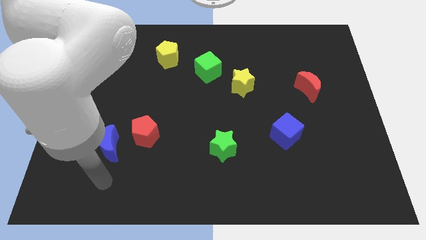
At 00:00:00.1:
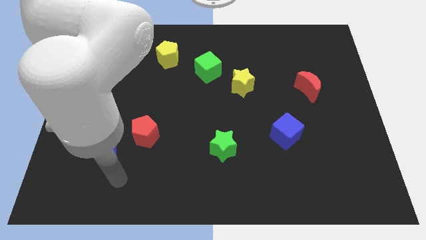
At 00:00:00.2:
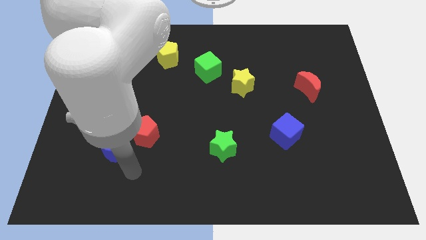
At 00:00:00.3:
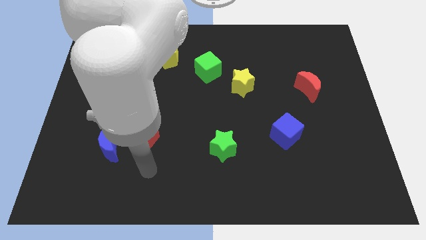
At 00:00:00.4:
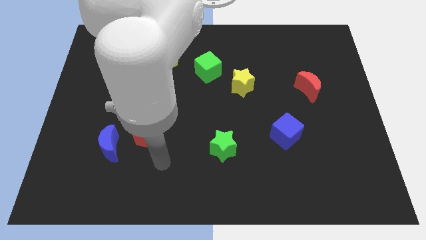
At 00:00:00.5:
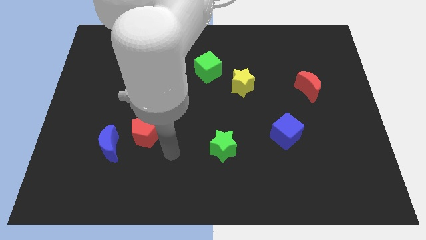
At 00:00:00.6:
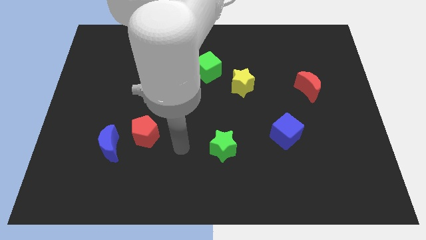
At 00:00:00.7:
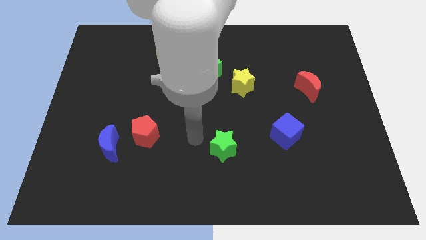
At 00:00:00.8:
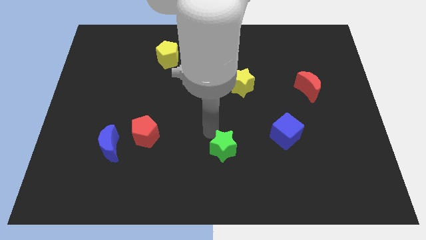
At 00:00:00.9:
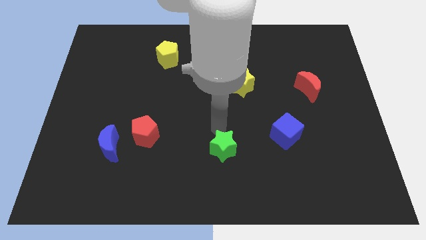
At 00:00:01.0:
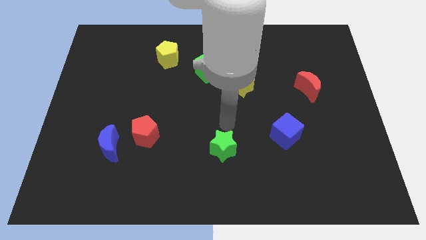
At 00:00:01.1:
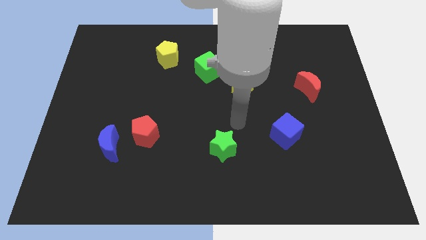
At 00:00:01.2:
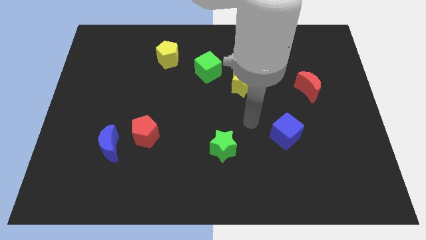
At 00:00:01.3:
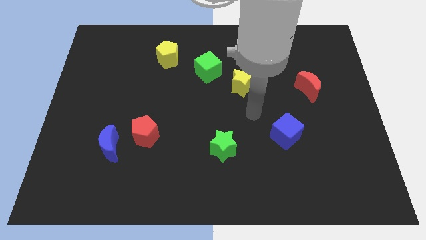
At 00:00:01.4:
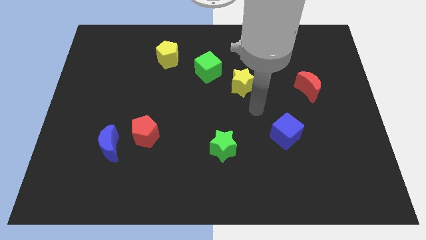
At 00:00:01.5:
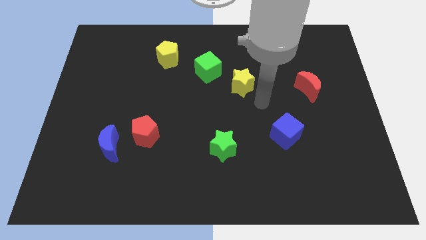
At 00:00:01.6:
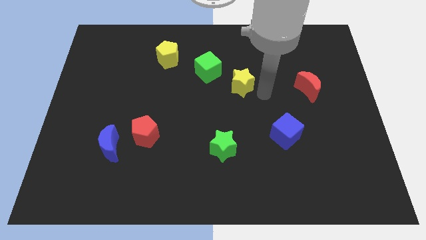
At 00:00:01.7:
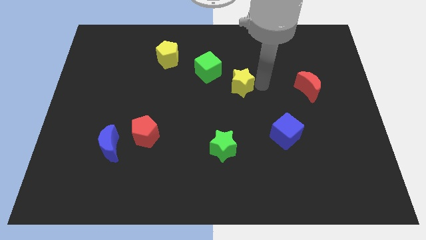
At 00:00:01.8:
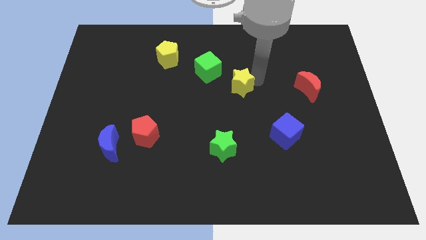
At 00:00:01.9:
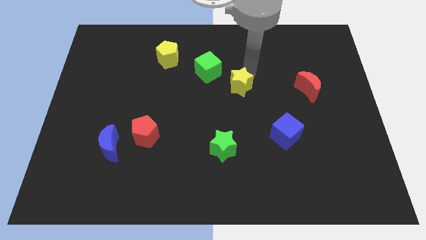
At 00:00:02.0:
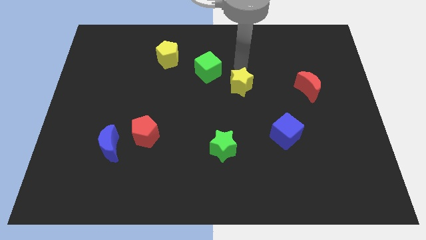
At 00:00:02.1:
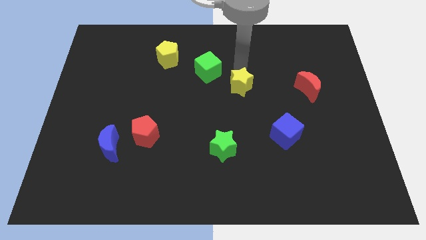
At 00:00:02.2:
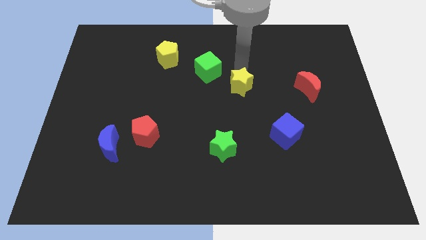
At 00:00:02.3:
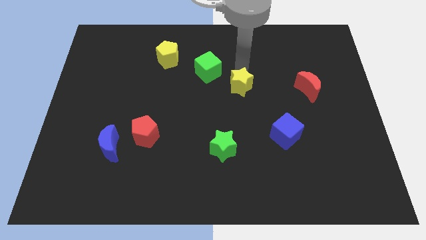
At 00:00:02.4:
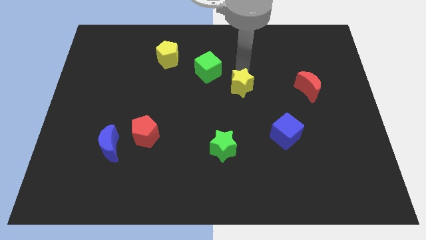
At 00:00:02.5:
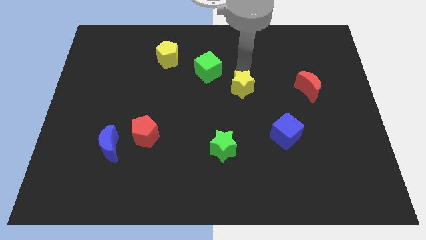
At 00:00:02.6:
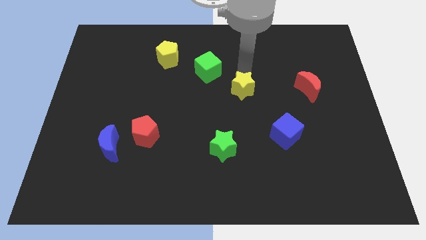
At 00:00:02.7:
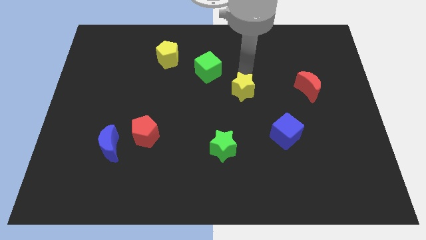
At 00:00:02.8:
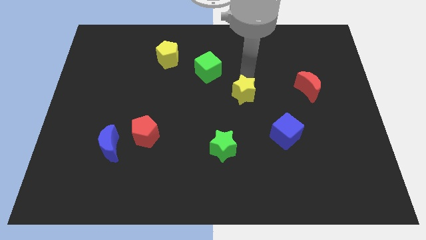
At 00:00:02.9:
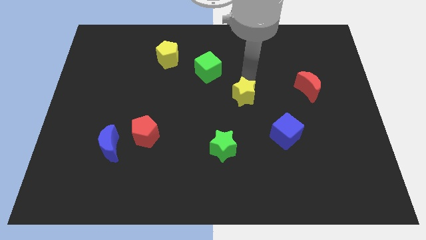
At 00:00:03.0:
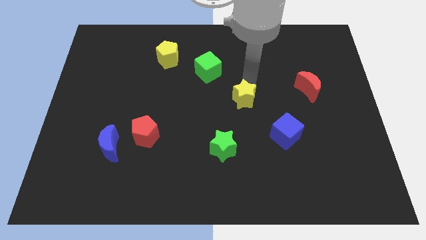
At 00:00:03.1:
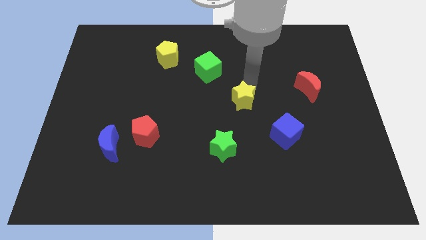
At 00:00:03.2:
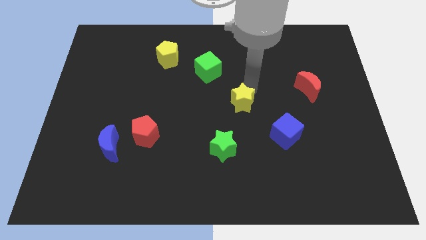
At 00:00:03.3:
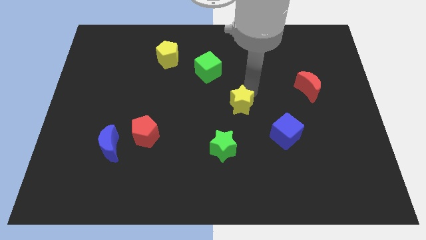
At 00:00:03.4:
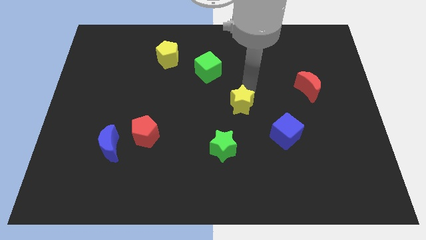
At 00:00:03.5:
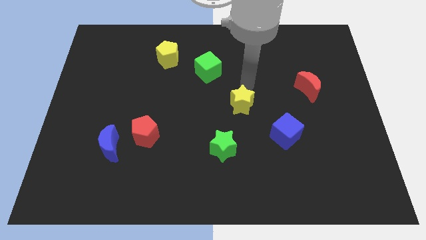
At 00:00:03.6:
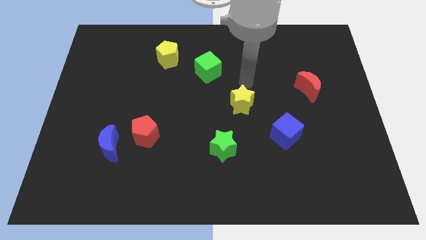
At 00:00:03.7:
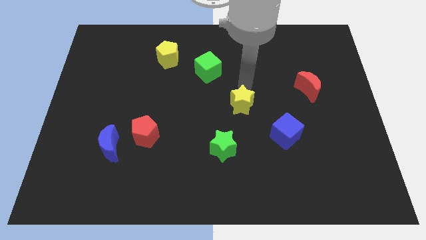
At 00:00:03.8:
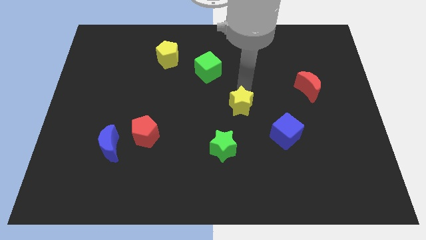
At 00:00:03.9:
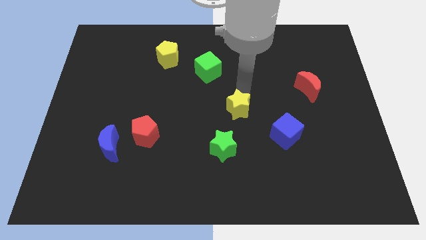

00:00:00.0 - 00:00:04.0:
slightly push the yellow star down

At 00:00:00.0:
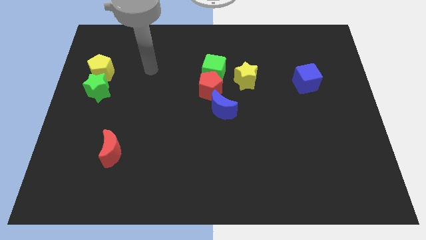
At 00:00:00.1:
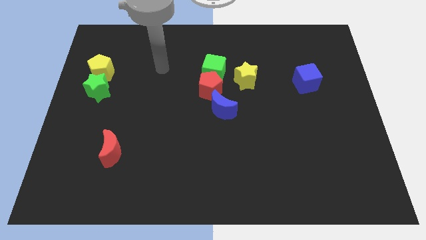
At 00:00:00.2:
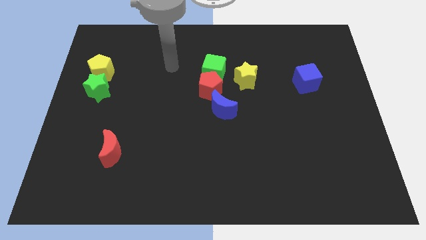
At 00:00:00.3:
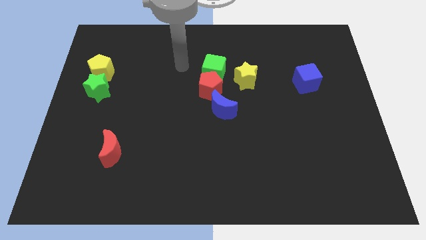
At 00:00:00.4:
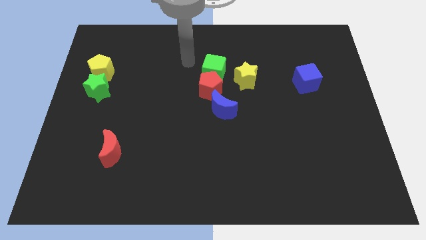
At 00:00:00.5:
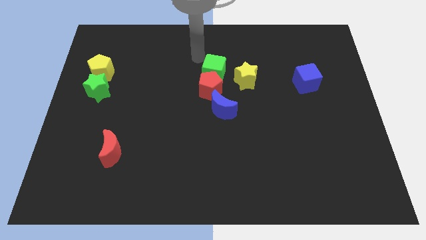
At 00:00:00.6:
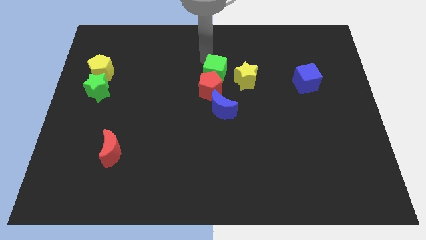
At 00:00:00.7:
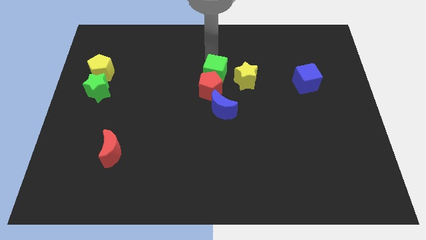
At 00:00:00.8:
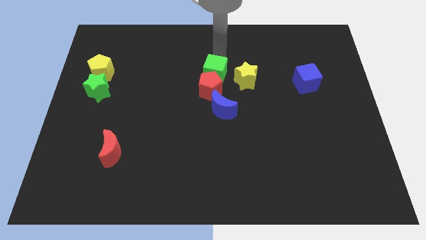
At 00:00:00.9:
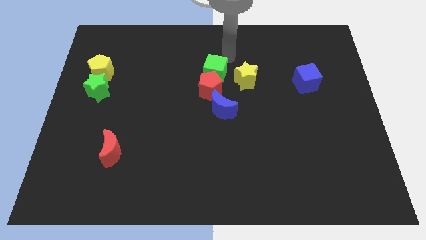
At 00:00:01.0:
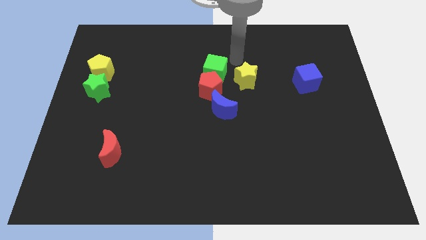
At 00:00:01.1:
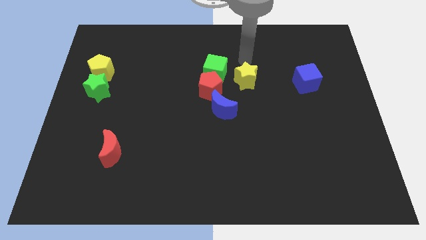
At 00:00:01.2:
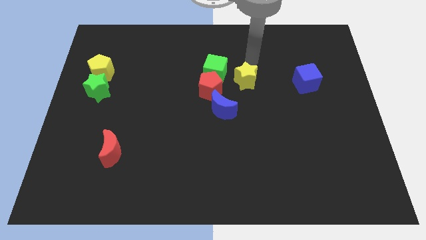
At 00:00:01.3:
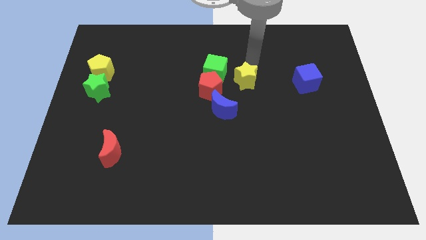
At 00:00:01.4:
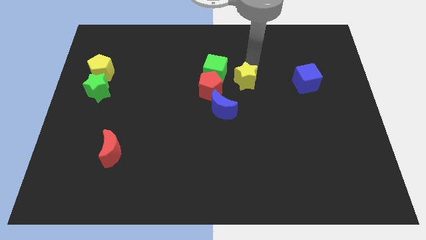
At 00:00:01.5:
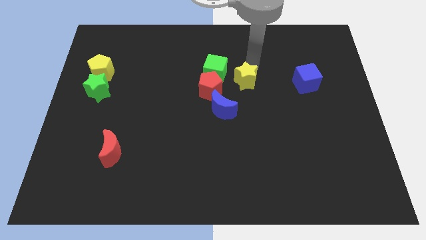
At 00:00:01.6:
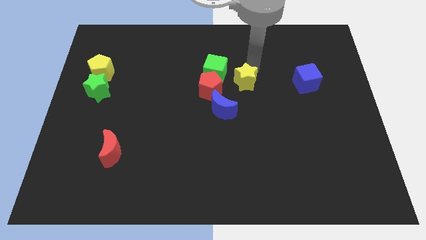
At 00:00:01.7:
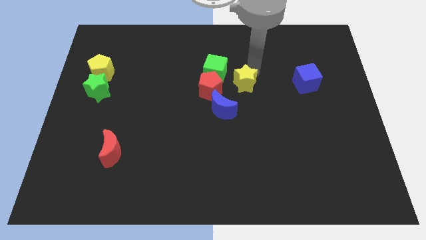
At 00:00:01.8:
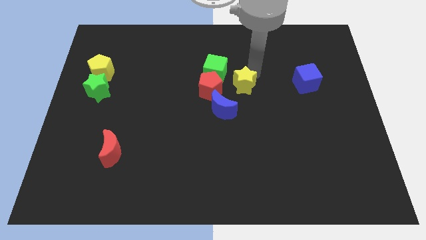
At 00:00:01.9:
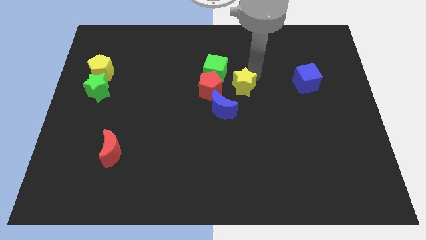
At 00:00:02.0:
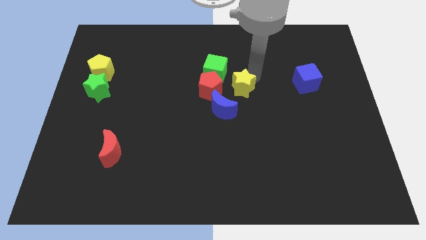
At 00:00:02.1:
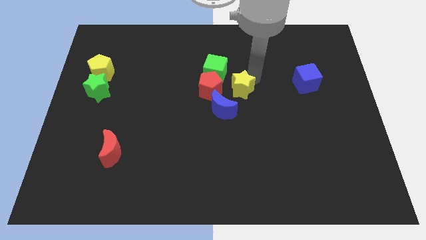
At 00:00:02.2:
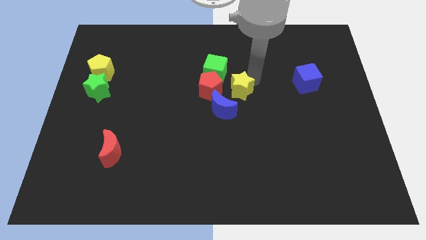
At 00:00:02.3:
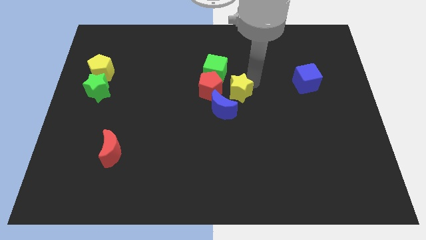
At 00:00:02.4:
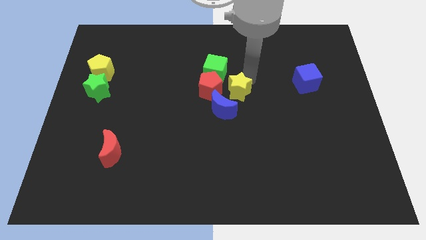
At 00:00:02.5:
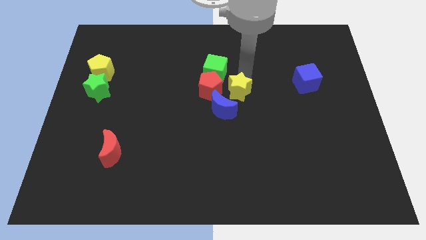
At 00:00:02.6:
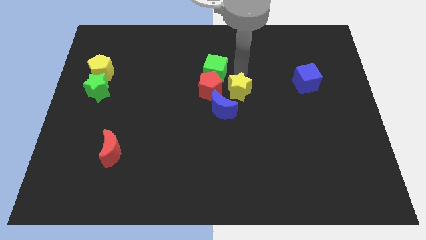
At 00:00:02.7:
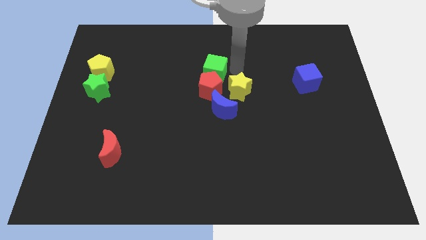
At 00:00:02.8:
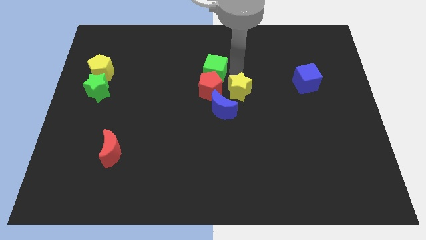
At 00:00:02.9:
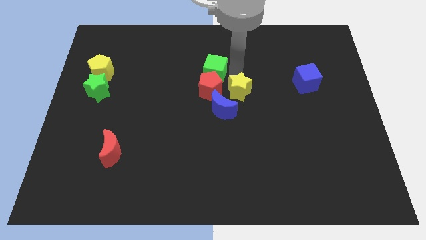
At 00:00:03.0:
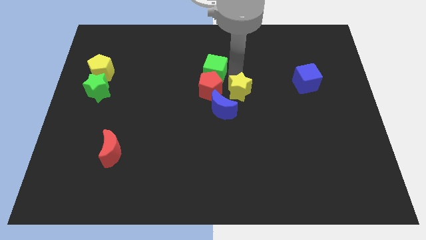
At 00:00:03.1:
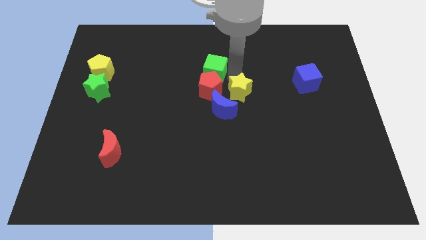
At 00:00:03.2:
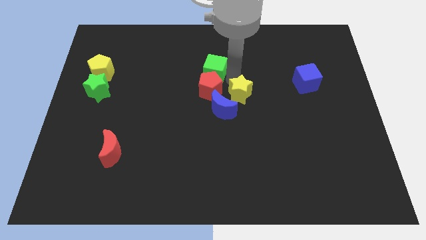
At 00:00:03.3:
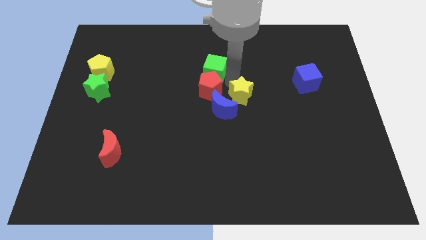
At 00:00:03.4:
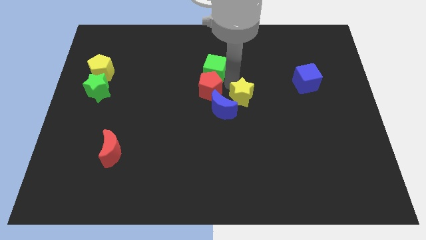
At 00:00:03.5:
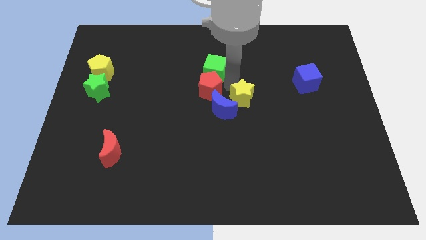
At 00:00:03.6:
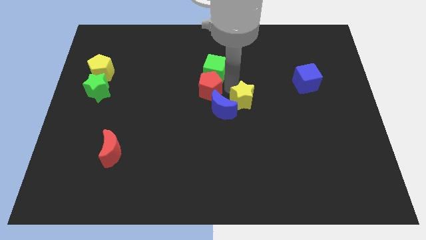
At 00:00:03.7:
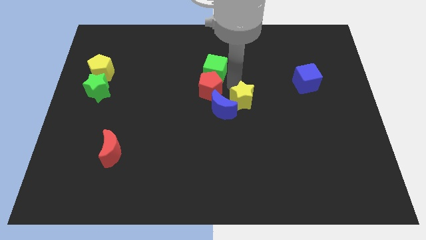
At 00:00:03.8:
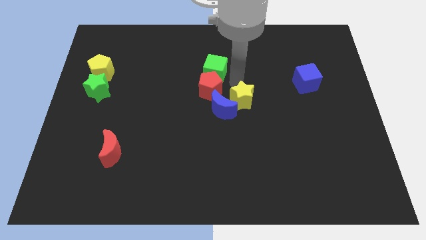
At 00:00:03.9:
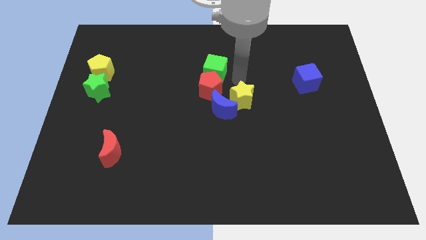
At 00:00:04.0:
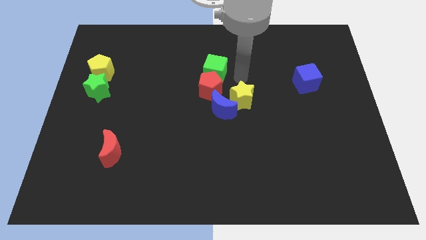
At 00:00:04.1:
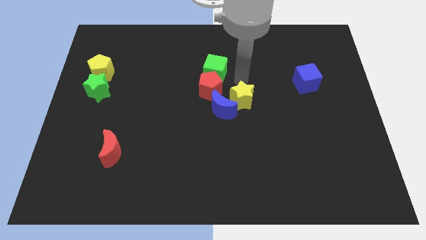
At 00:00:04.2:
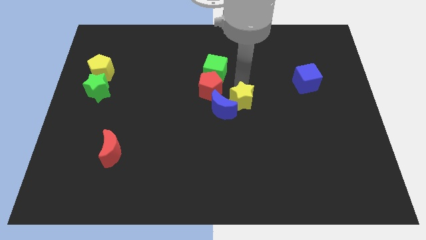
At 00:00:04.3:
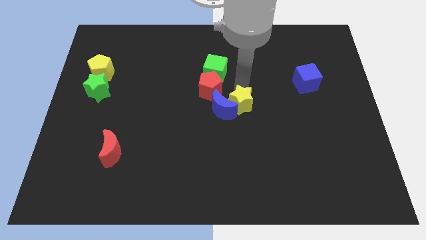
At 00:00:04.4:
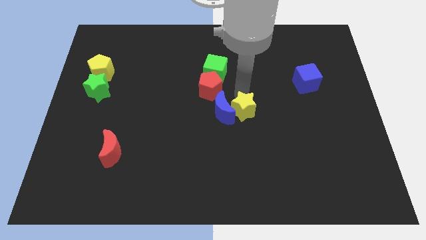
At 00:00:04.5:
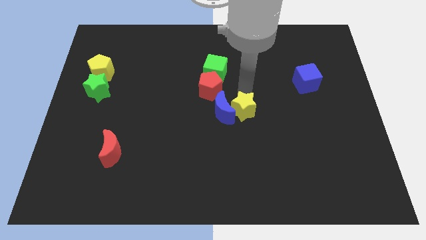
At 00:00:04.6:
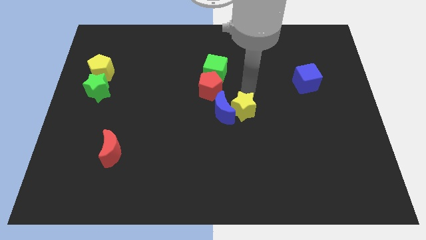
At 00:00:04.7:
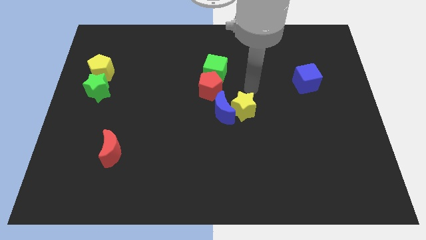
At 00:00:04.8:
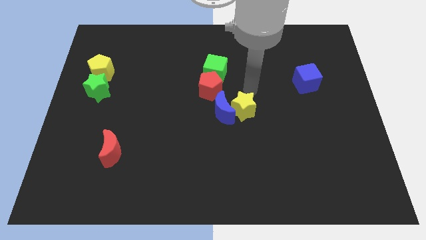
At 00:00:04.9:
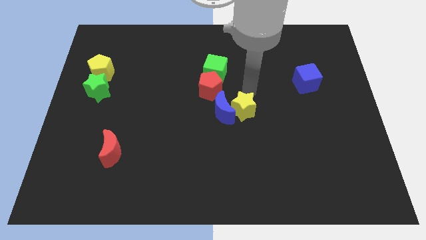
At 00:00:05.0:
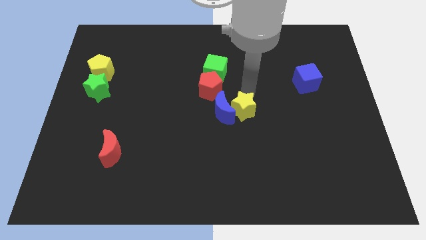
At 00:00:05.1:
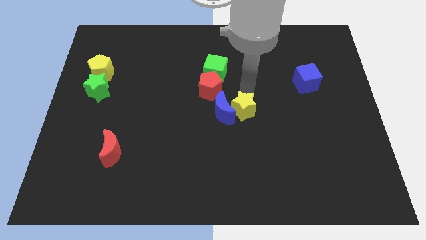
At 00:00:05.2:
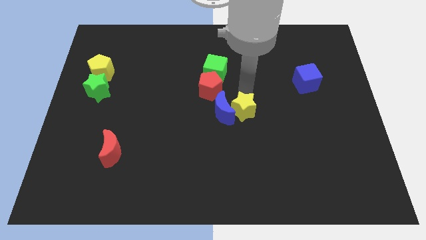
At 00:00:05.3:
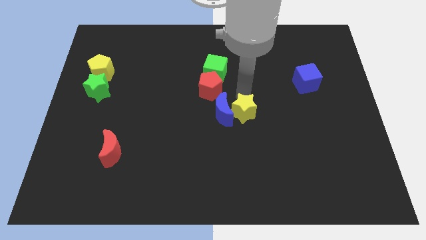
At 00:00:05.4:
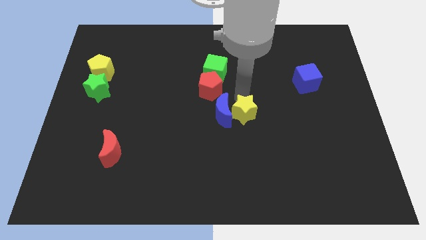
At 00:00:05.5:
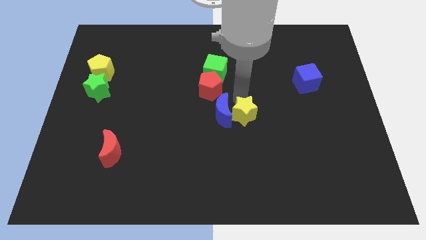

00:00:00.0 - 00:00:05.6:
slightly move the yellow star downwards and then left
